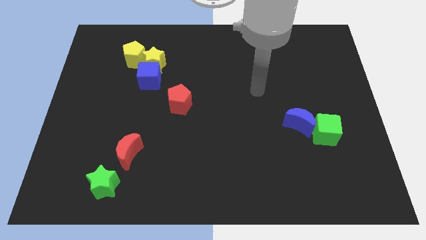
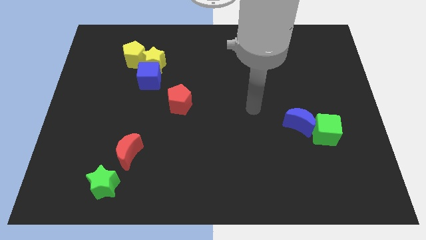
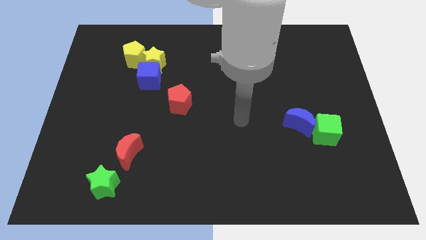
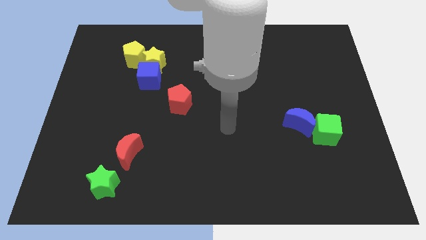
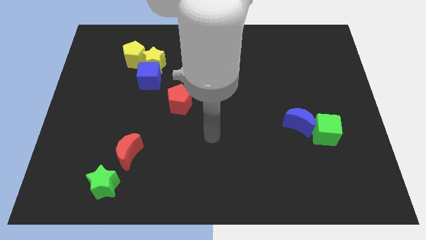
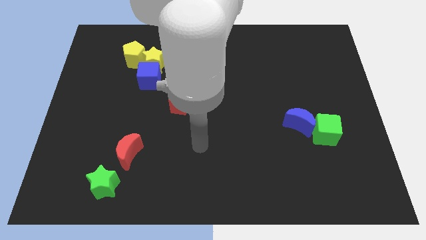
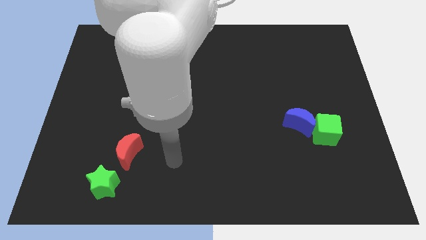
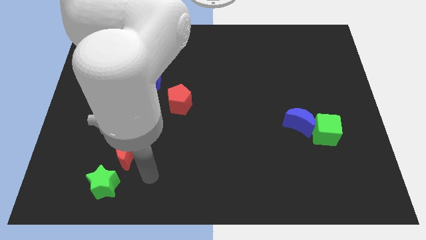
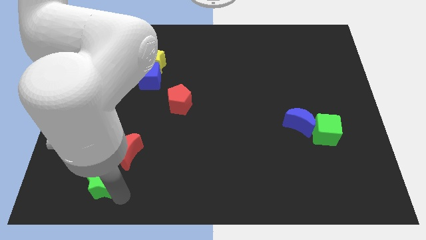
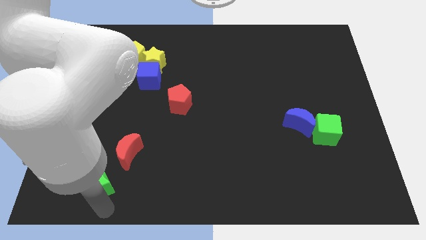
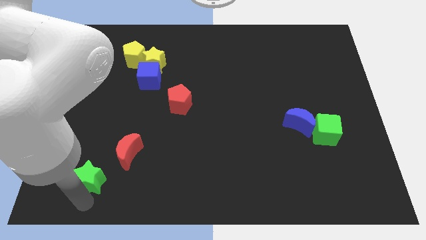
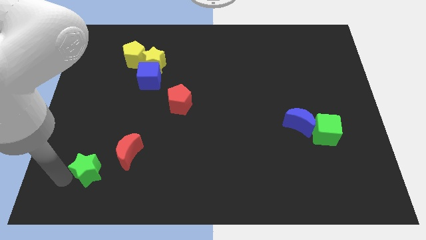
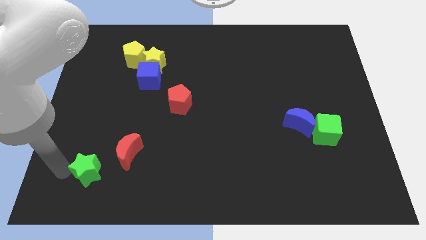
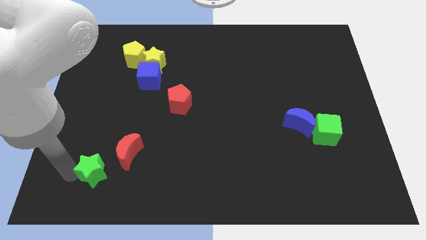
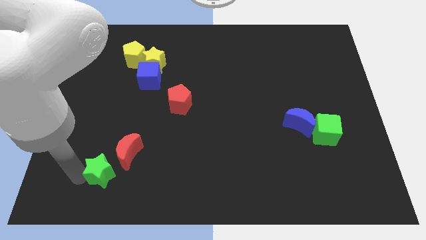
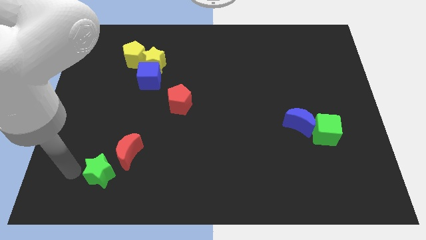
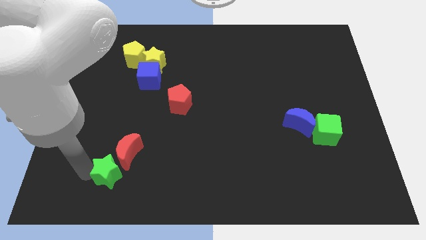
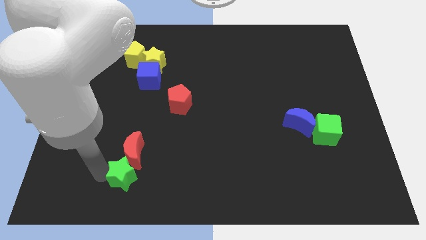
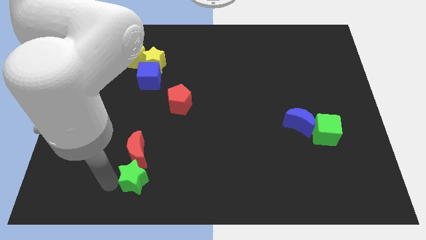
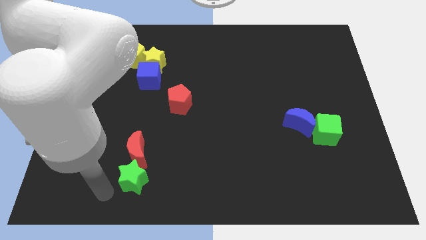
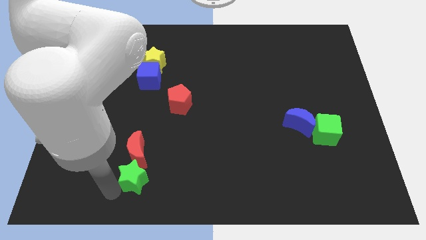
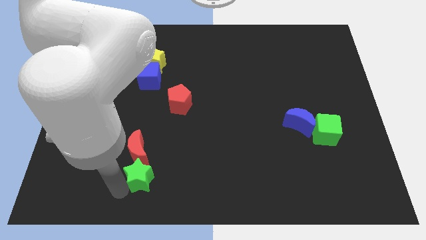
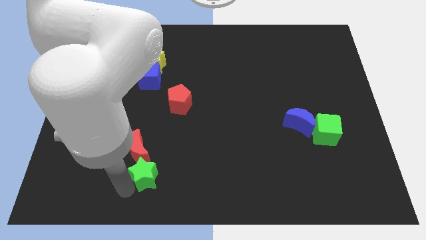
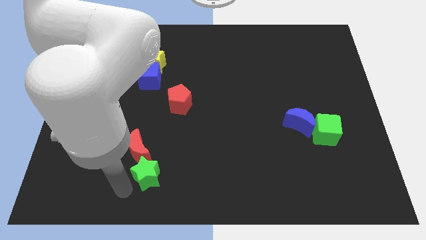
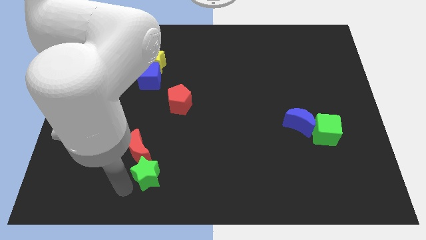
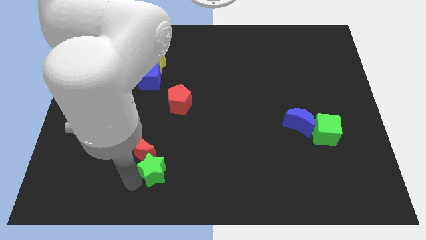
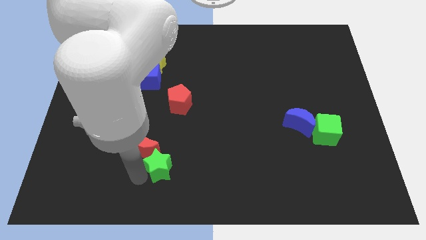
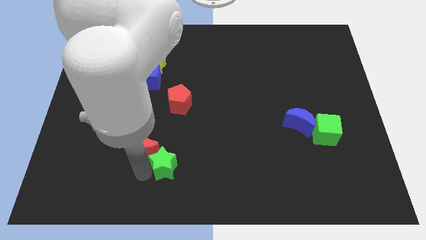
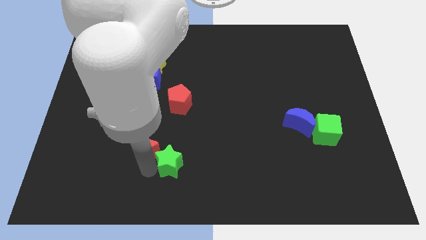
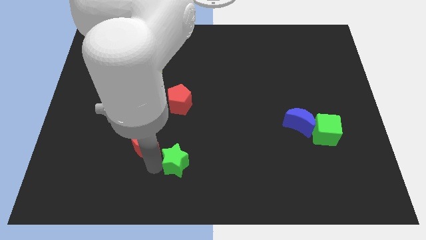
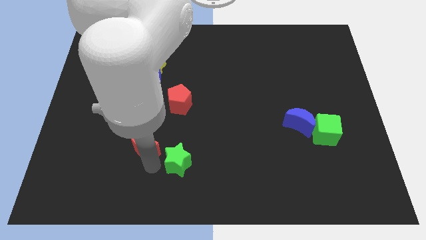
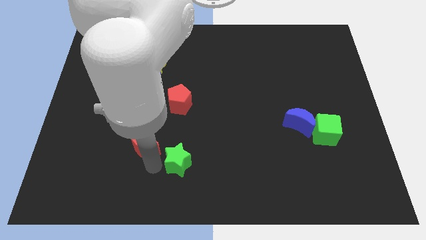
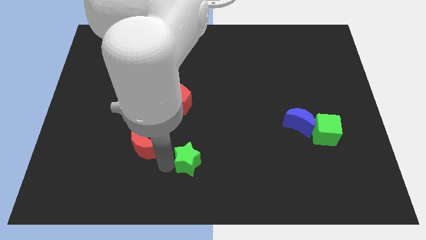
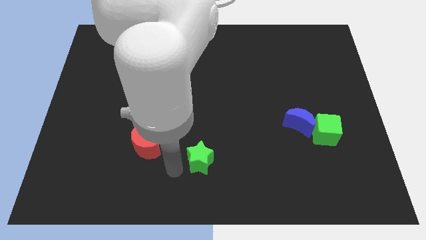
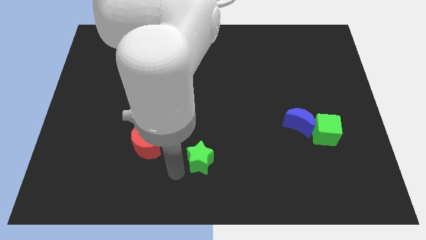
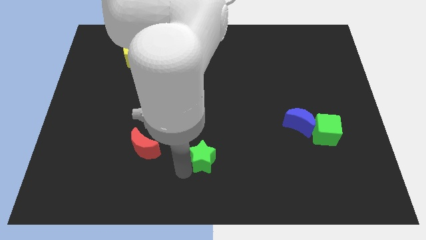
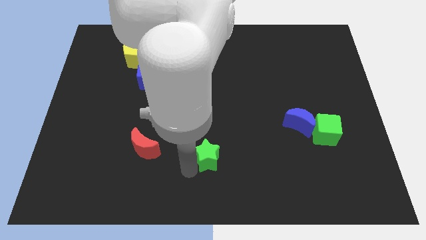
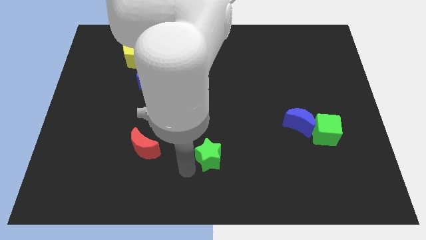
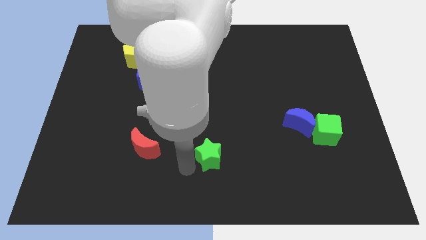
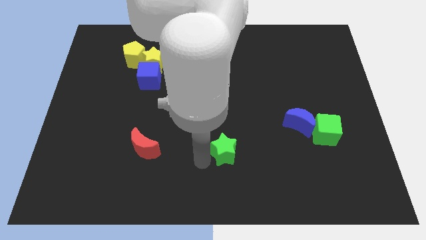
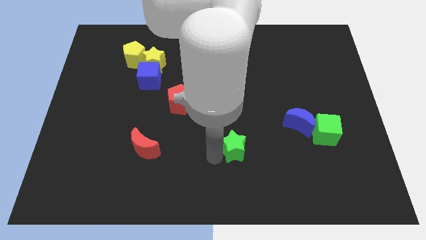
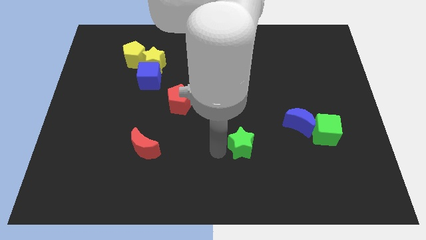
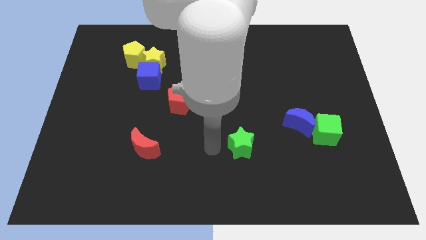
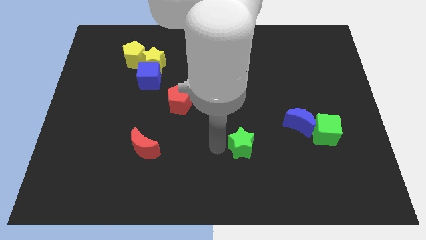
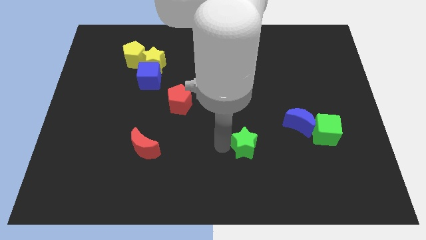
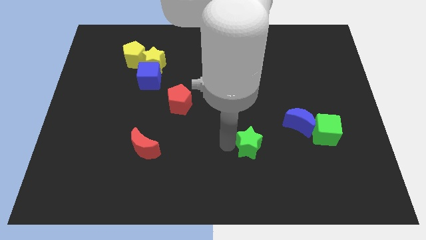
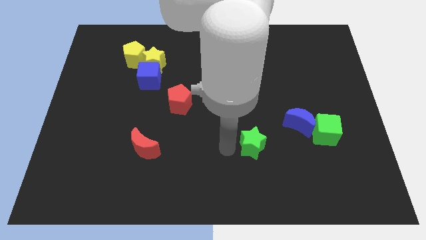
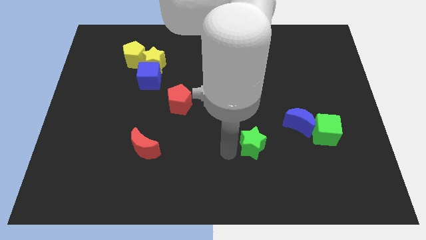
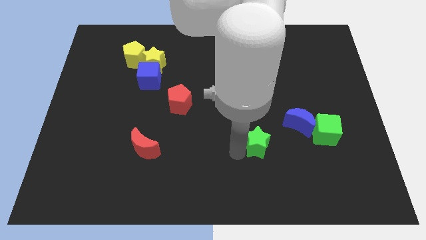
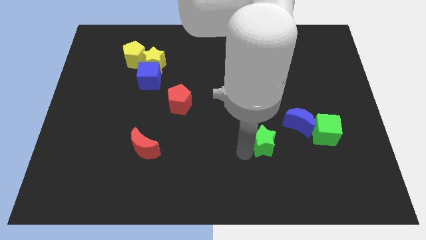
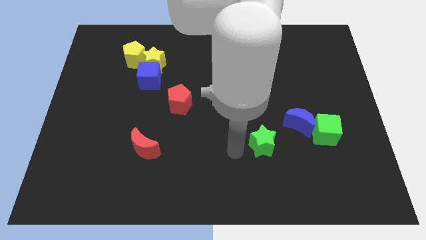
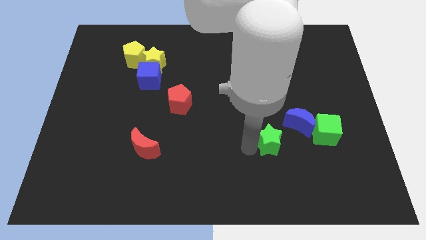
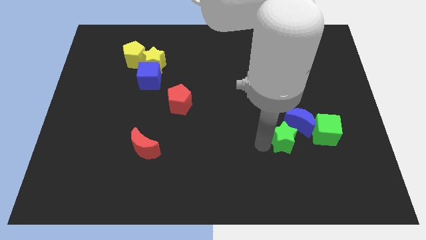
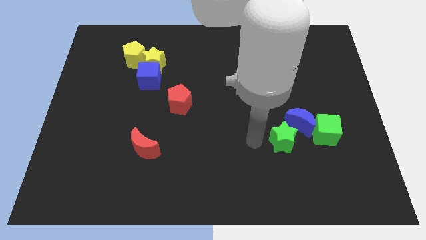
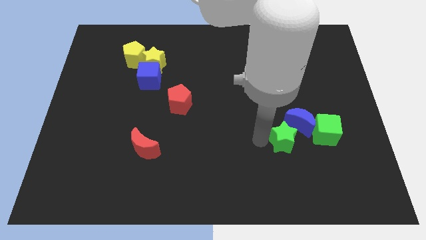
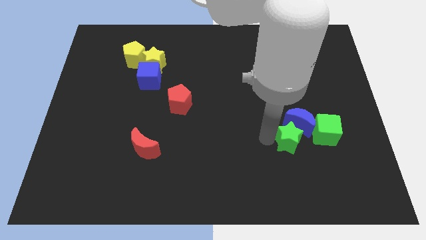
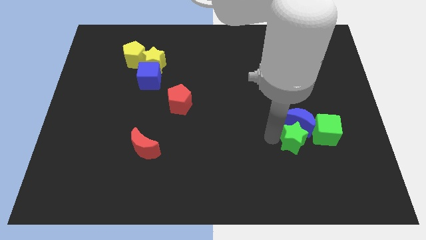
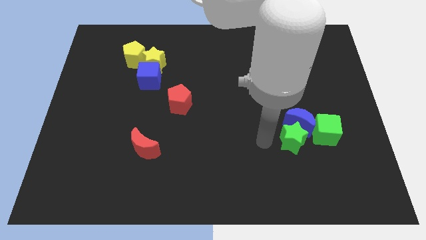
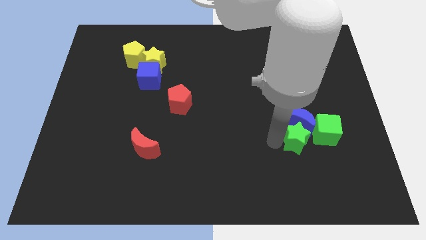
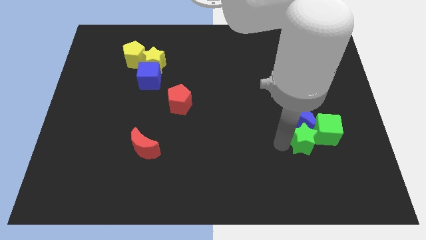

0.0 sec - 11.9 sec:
put the green star towards the green cube

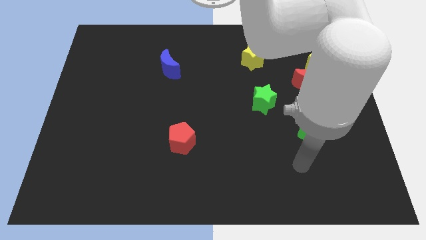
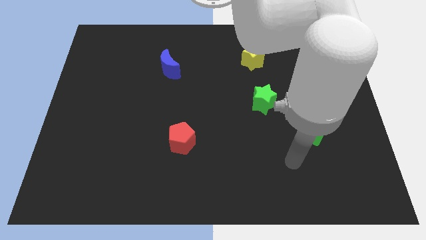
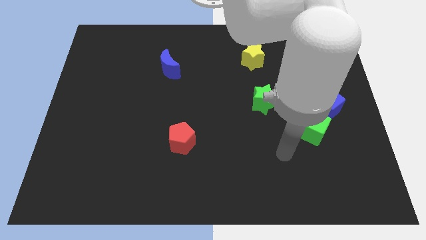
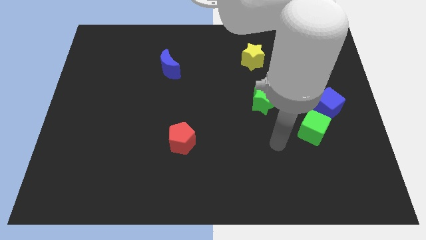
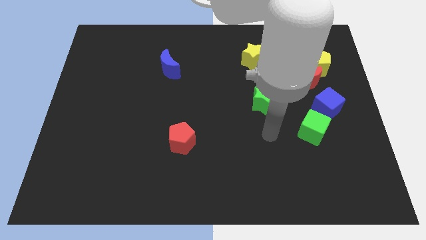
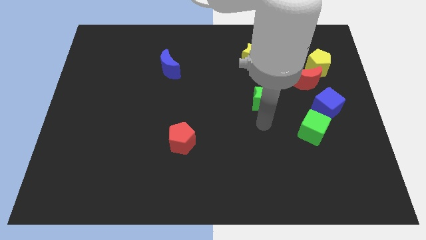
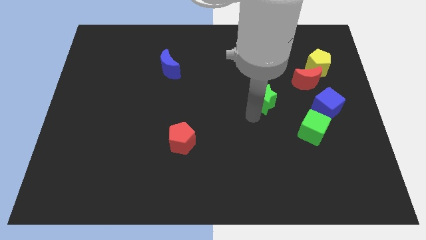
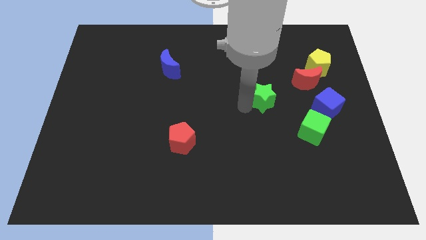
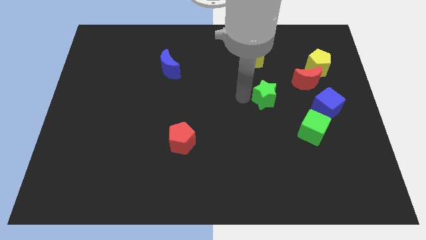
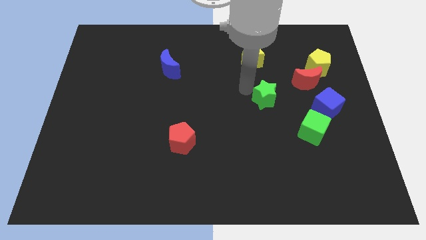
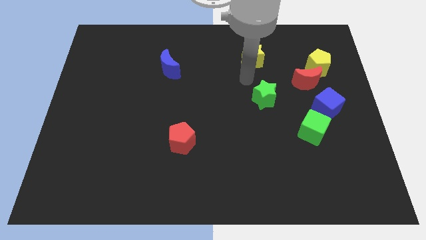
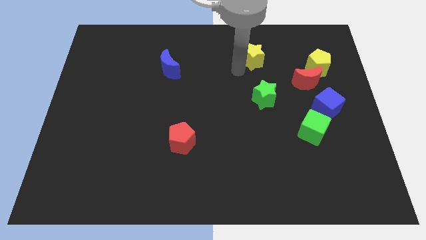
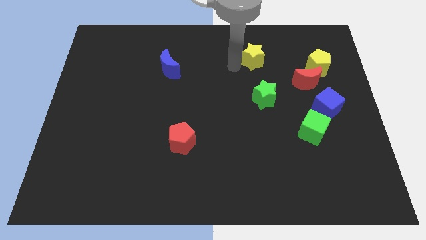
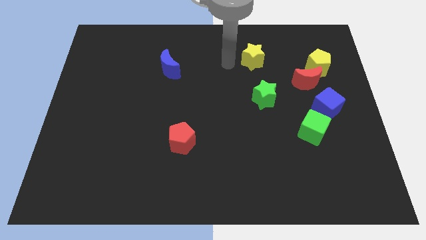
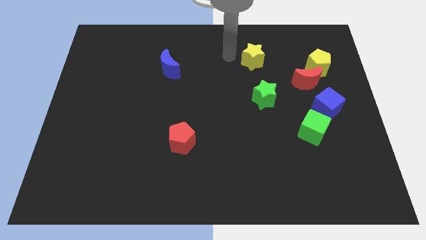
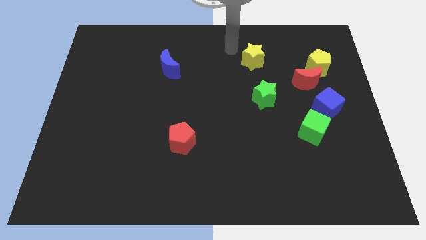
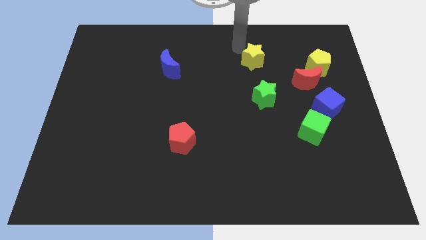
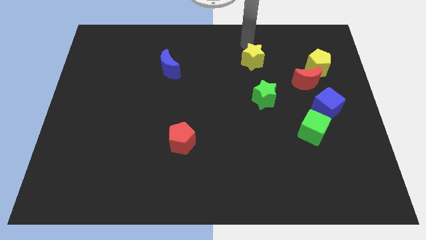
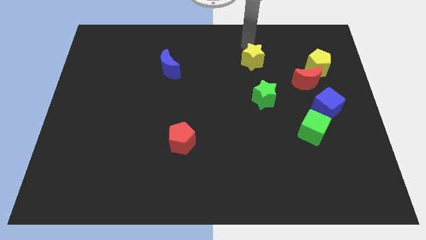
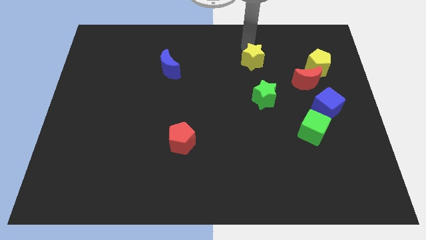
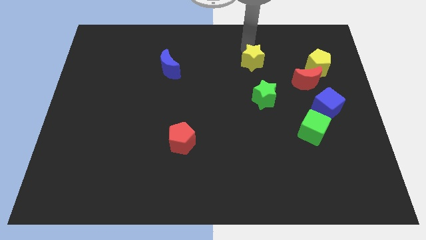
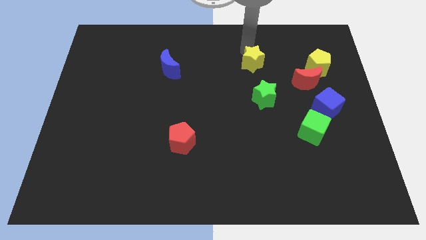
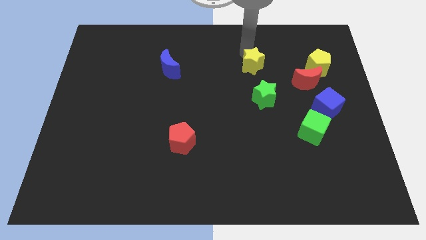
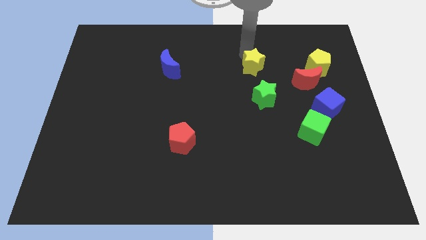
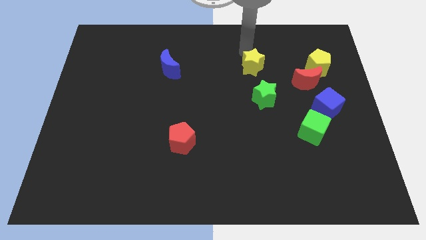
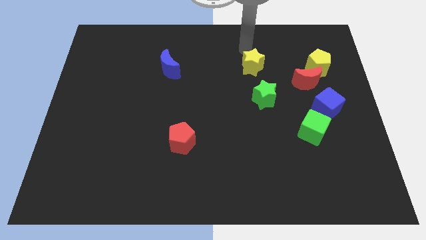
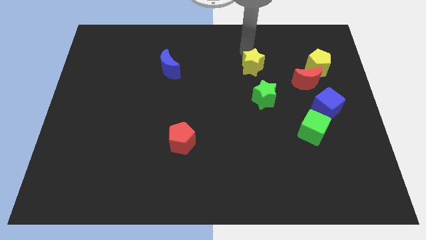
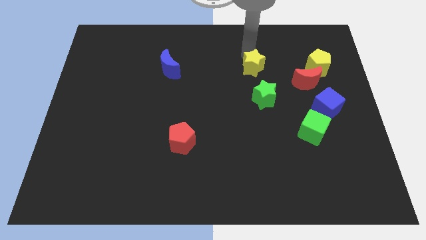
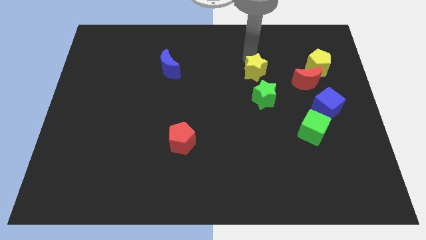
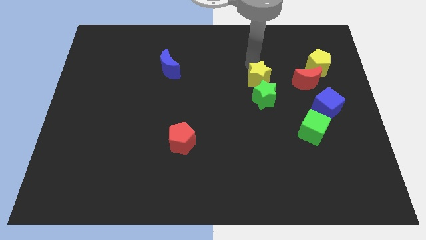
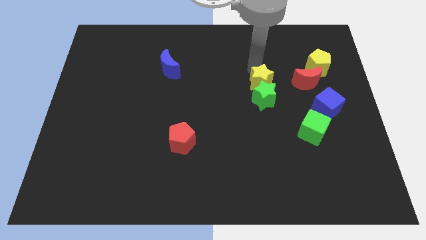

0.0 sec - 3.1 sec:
move the yellow star next to the green star
